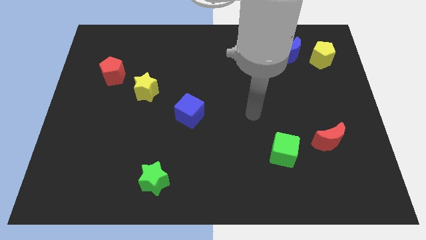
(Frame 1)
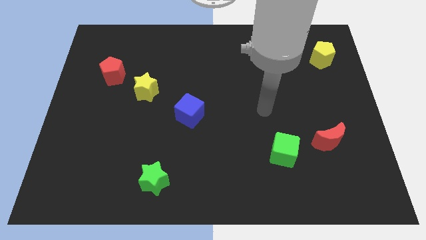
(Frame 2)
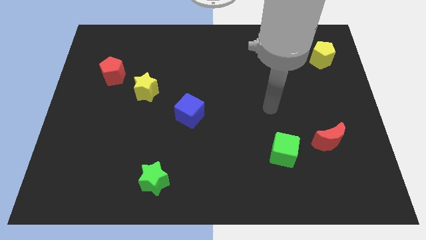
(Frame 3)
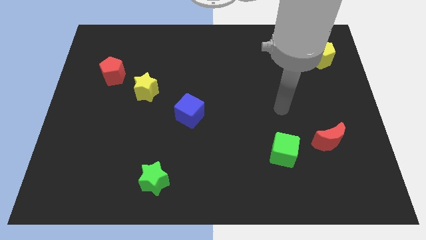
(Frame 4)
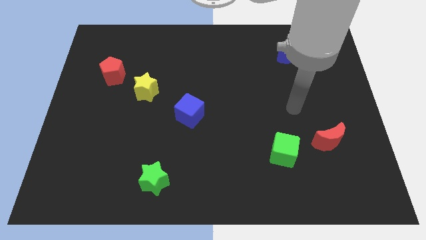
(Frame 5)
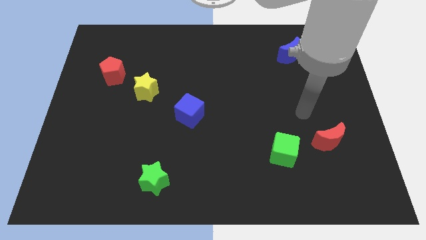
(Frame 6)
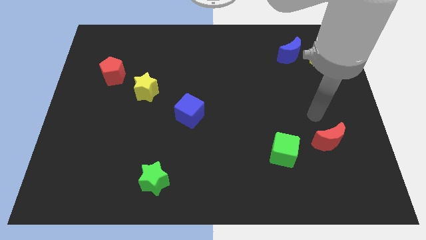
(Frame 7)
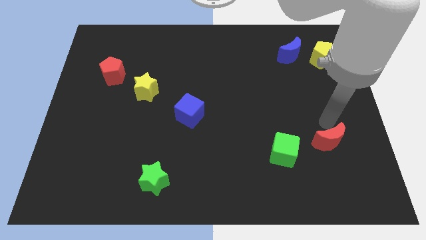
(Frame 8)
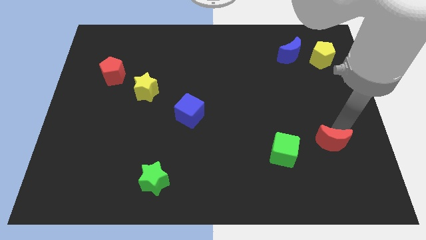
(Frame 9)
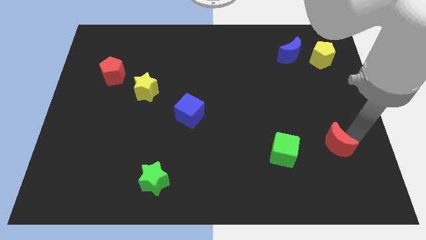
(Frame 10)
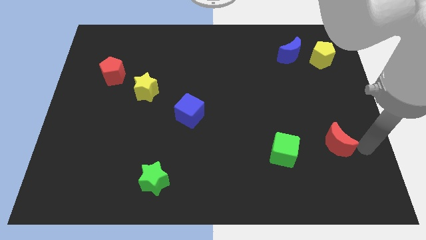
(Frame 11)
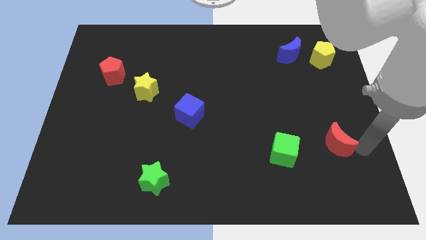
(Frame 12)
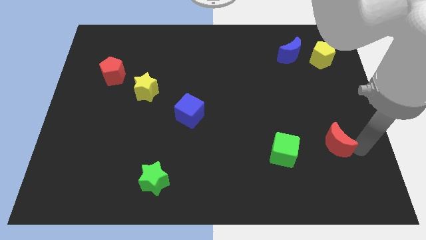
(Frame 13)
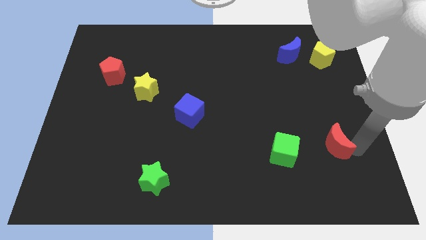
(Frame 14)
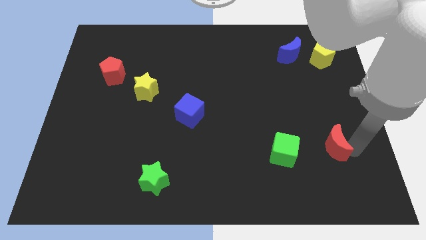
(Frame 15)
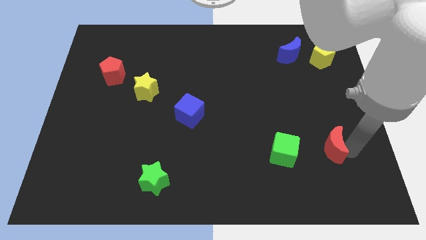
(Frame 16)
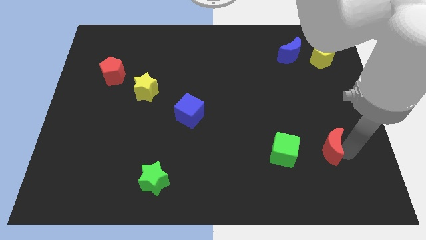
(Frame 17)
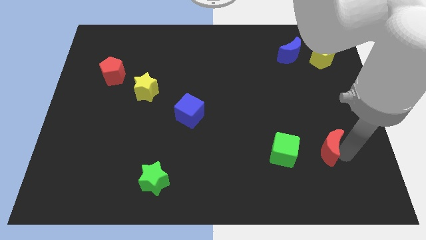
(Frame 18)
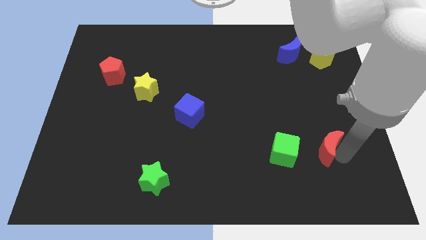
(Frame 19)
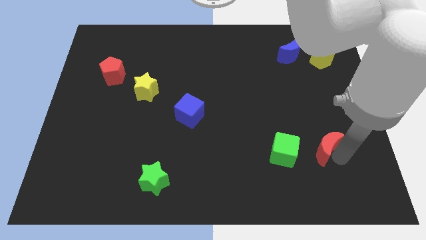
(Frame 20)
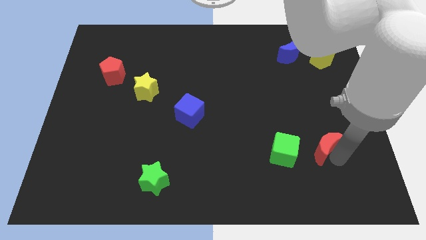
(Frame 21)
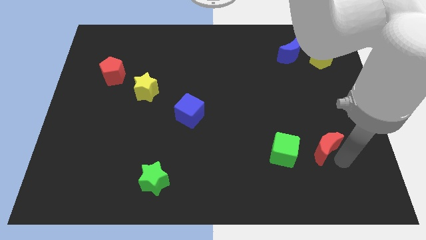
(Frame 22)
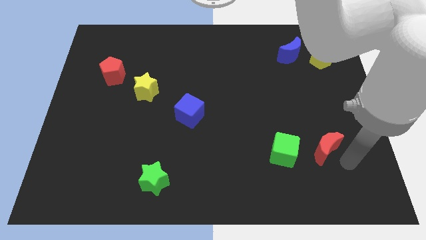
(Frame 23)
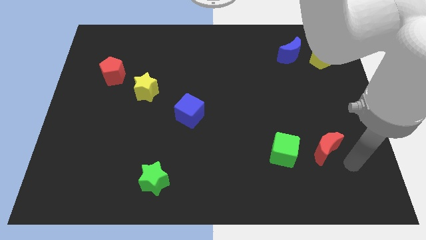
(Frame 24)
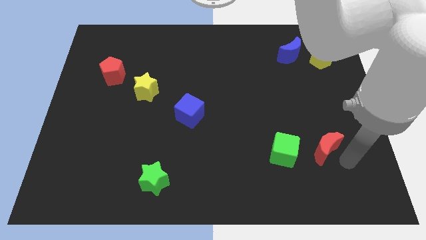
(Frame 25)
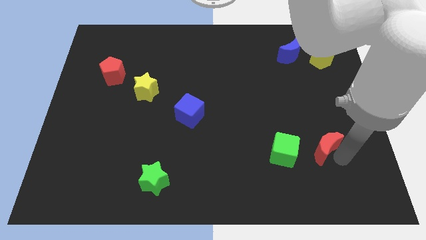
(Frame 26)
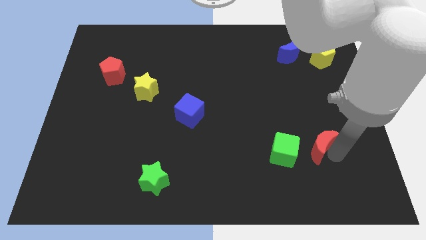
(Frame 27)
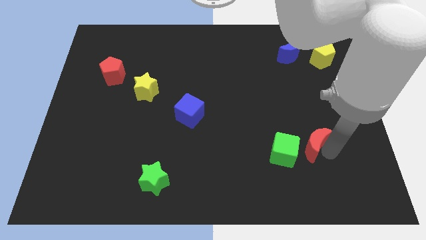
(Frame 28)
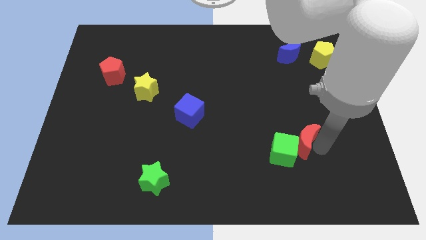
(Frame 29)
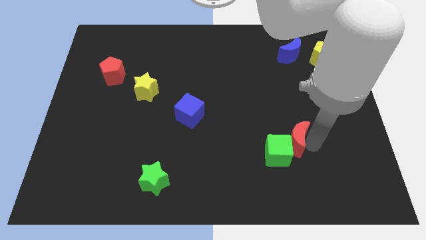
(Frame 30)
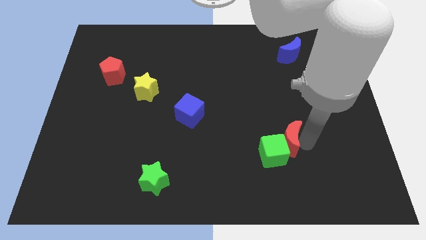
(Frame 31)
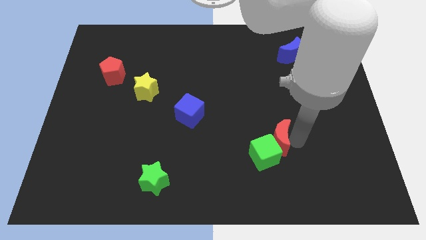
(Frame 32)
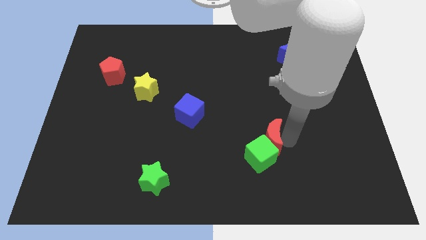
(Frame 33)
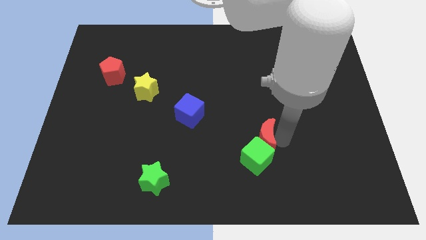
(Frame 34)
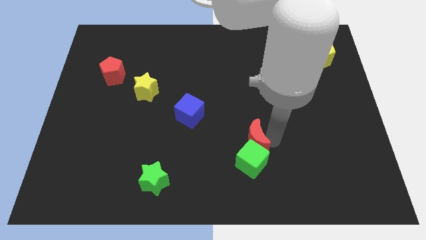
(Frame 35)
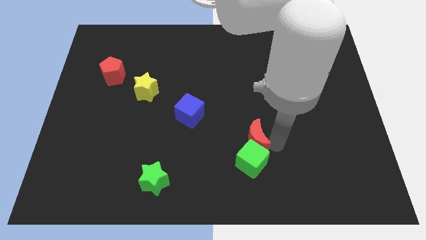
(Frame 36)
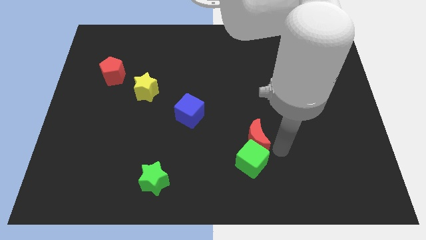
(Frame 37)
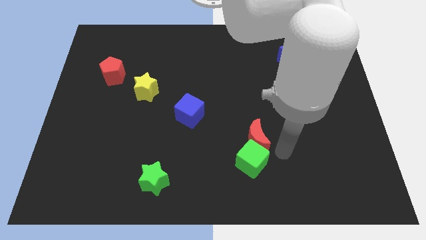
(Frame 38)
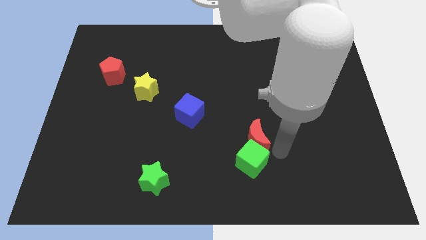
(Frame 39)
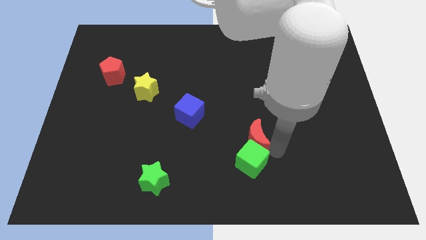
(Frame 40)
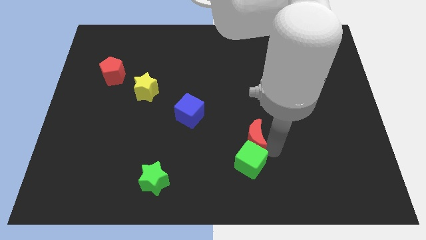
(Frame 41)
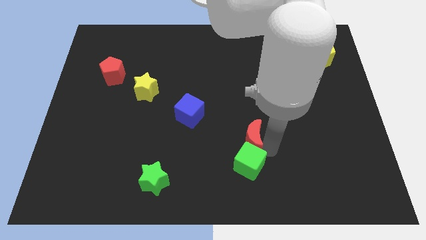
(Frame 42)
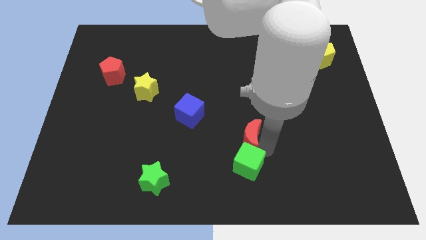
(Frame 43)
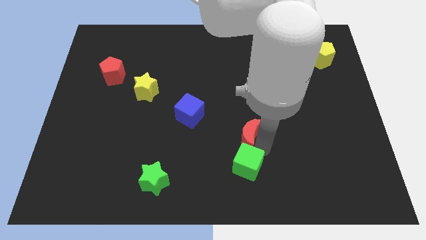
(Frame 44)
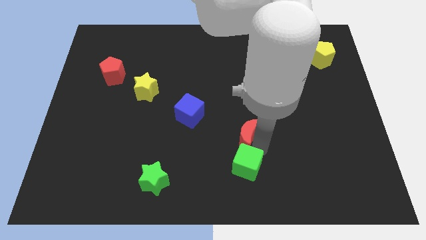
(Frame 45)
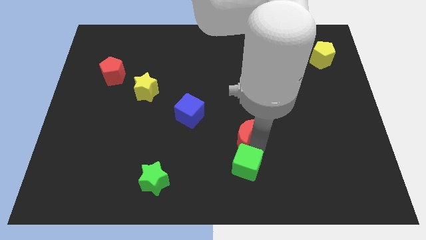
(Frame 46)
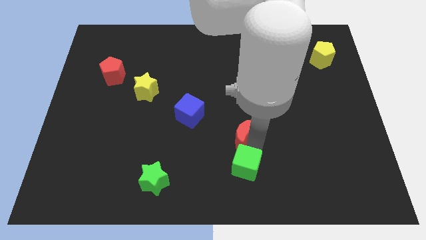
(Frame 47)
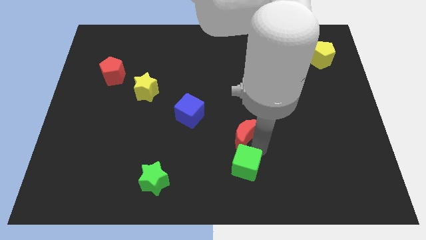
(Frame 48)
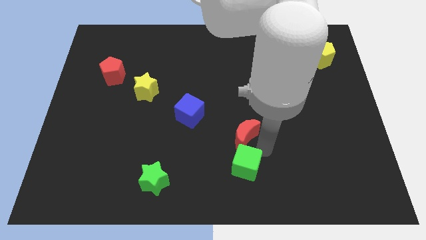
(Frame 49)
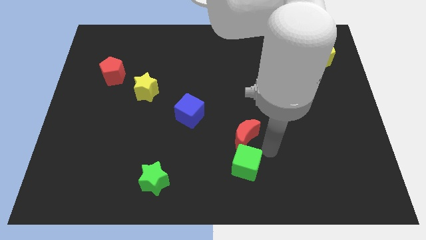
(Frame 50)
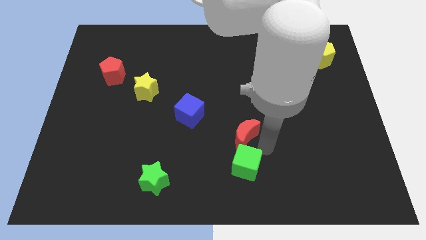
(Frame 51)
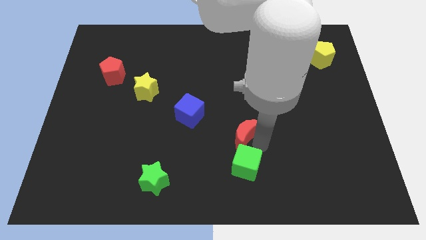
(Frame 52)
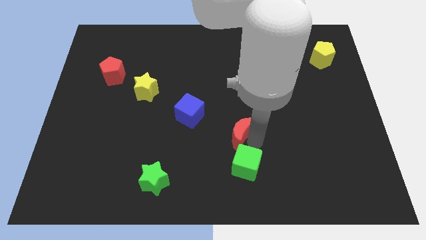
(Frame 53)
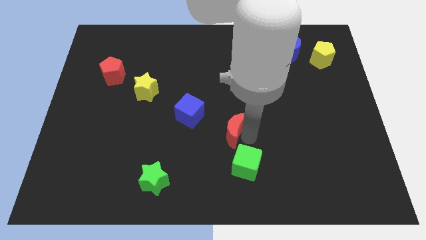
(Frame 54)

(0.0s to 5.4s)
slide the red moon to the bottom right of the blue cube

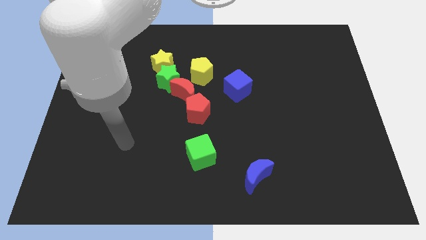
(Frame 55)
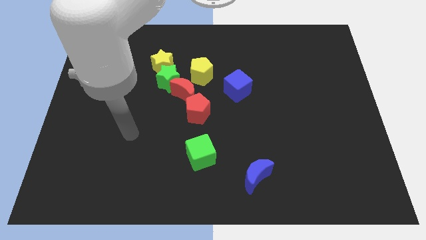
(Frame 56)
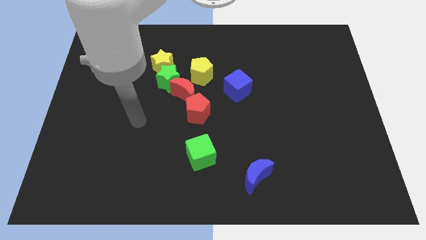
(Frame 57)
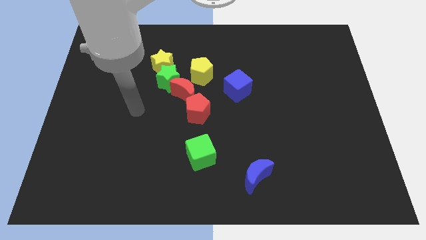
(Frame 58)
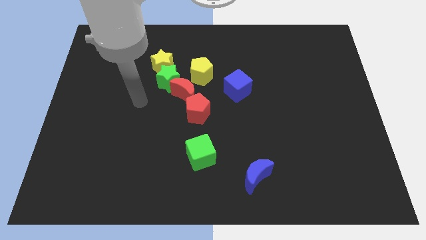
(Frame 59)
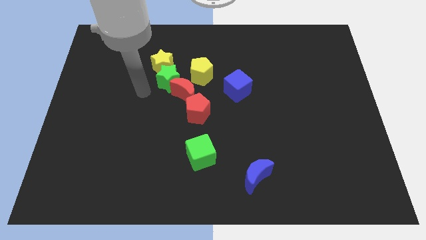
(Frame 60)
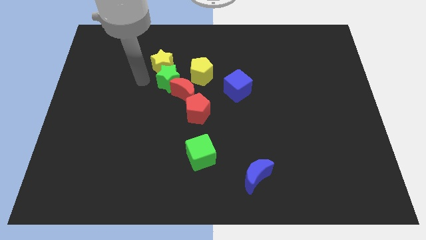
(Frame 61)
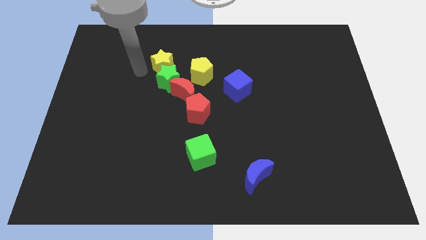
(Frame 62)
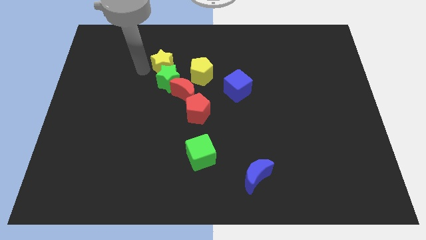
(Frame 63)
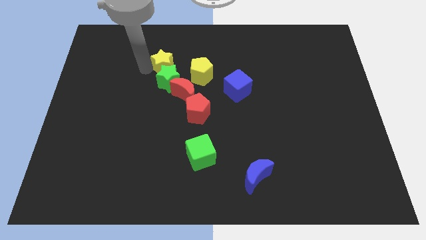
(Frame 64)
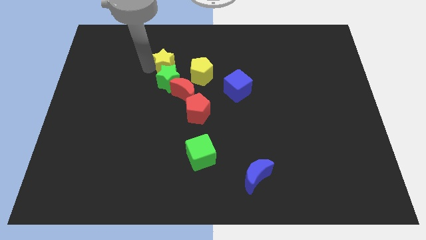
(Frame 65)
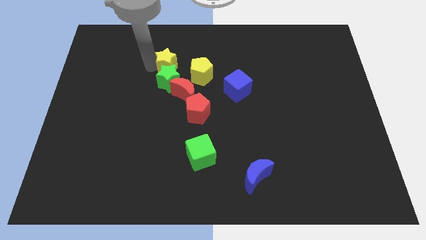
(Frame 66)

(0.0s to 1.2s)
slide the yellow star above the red moon
